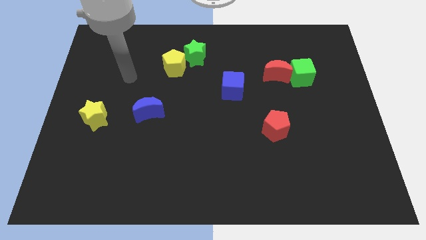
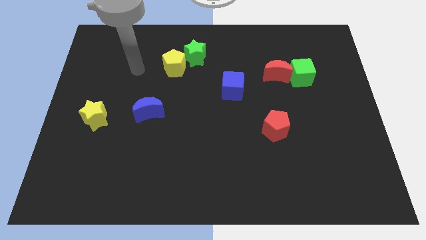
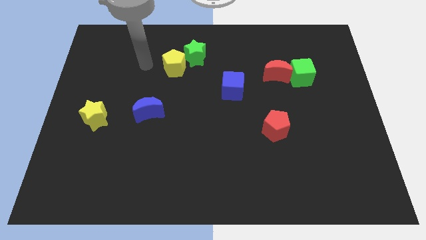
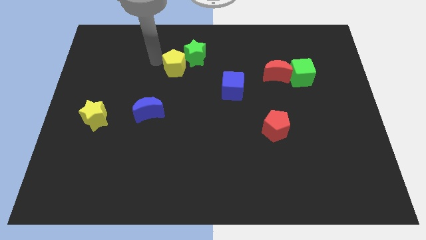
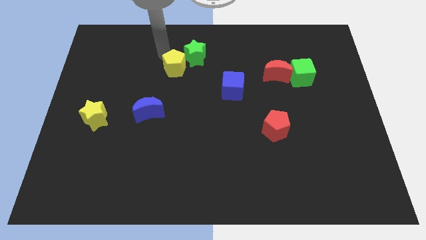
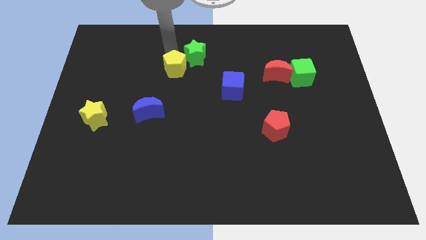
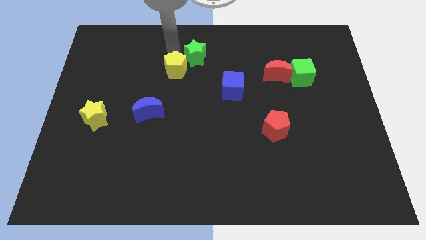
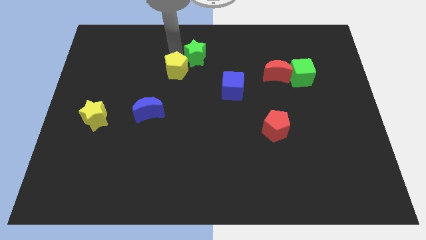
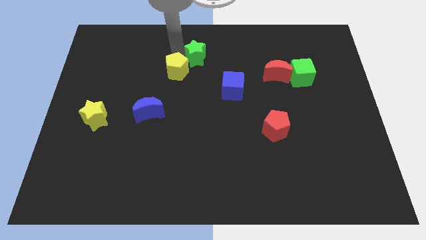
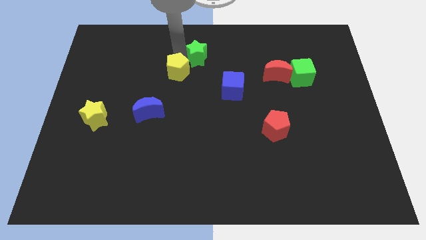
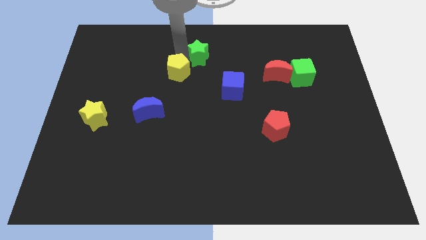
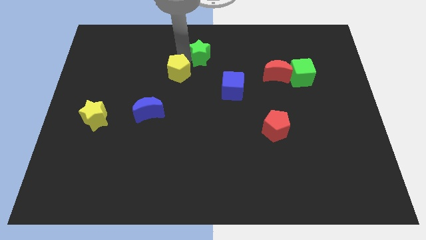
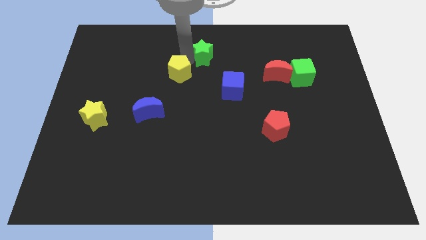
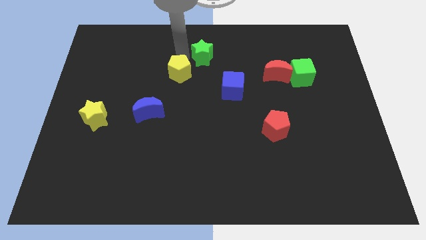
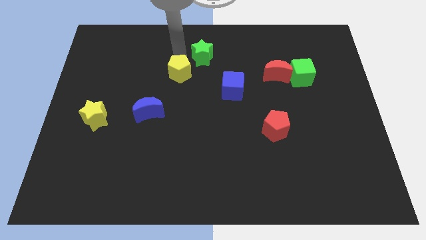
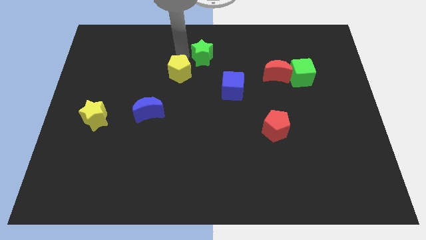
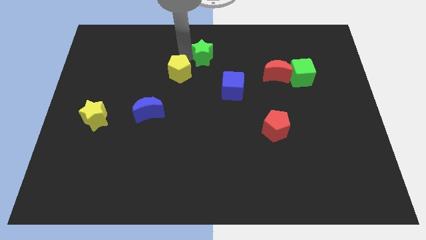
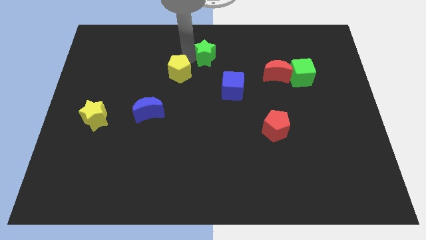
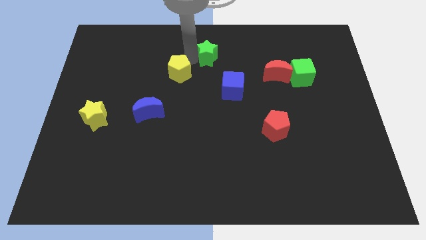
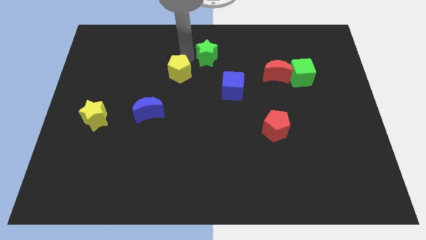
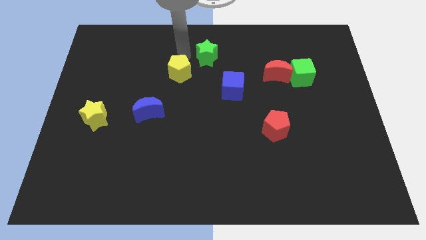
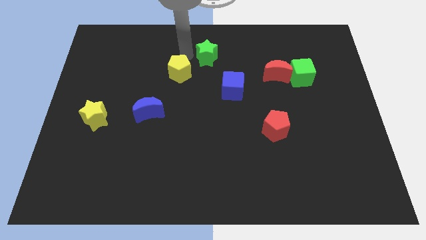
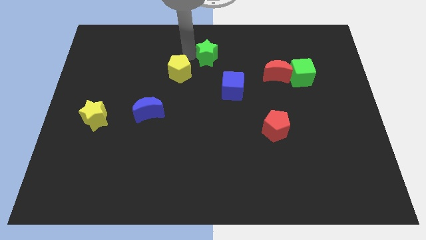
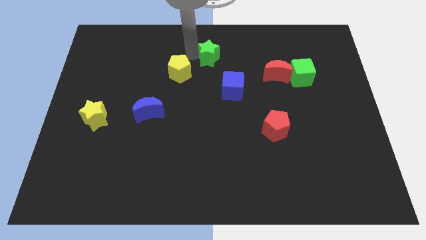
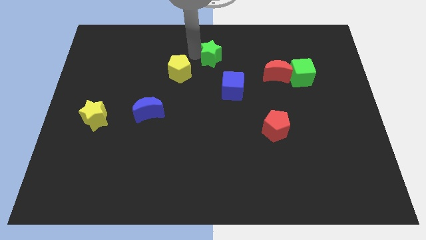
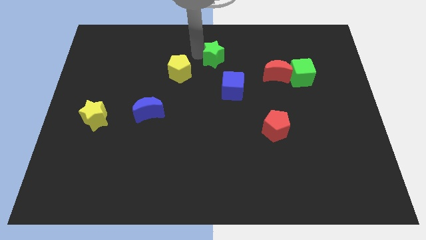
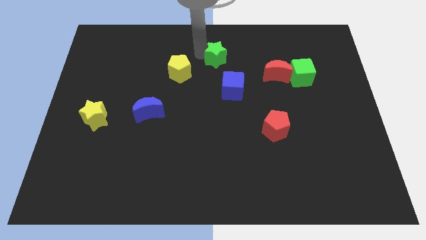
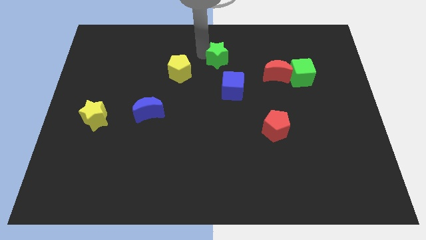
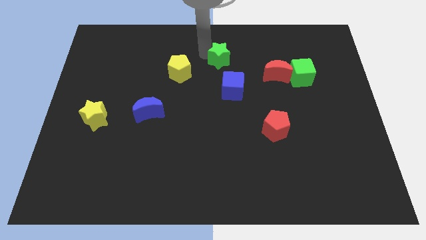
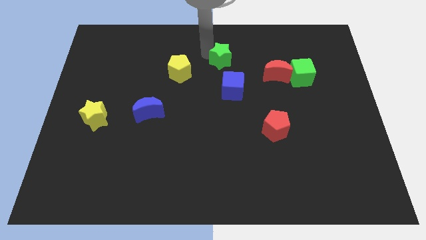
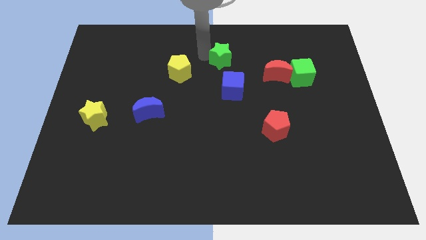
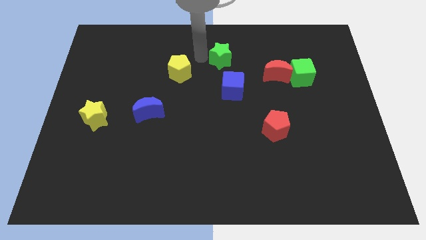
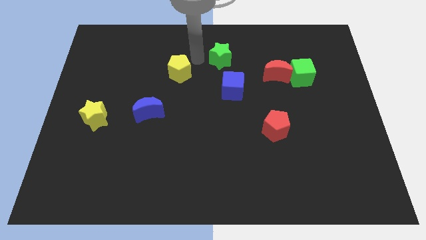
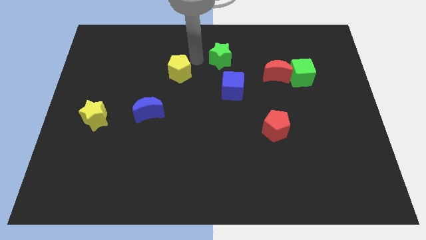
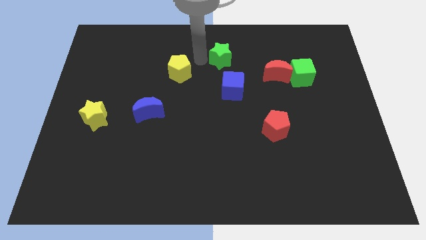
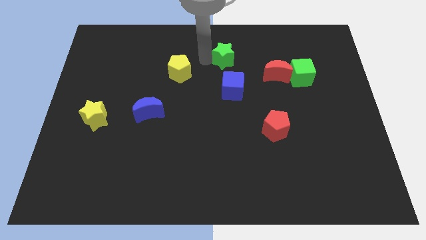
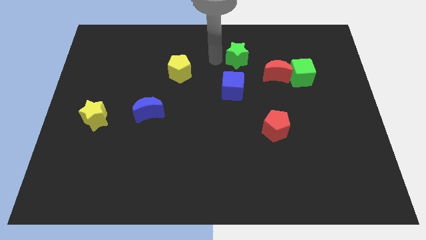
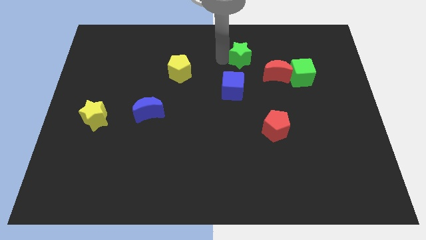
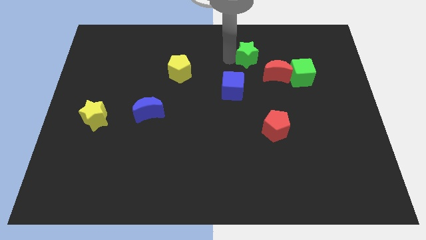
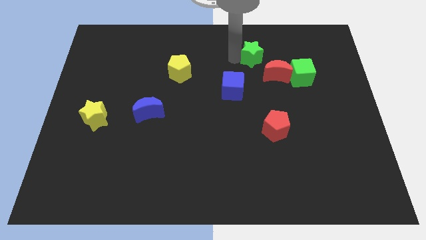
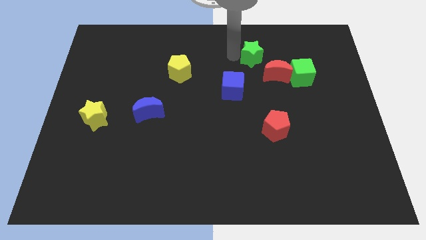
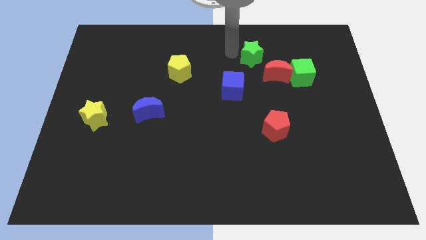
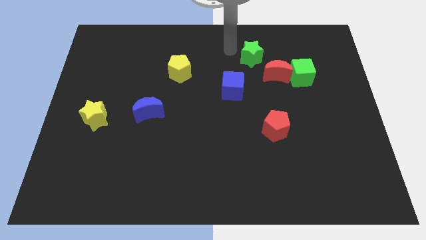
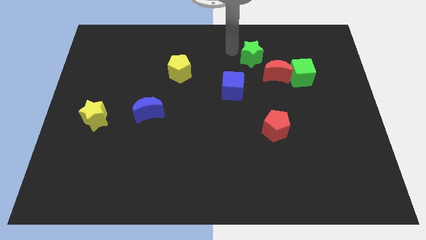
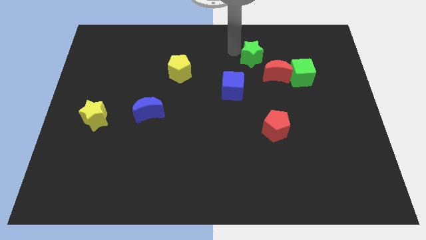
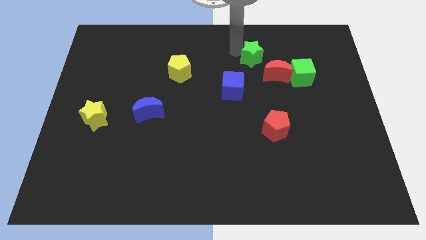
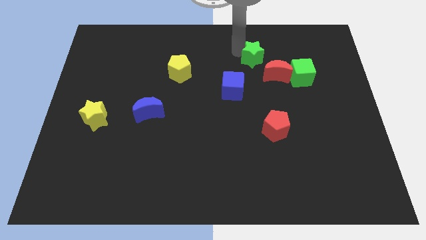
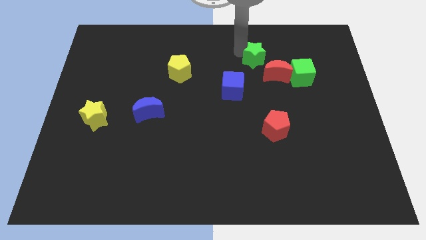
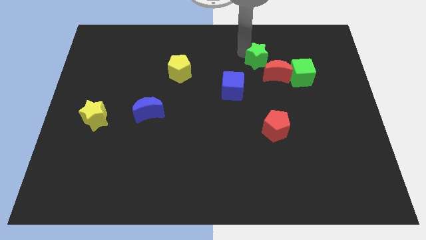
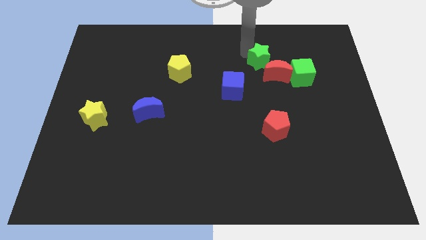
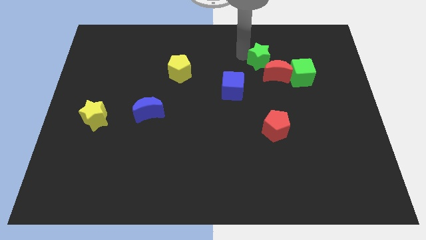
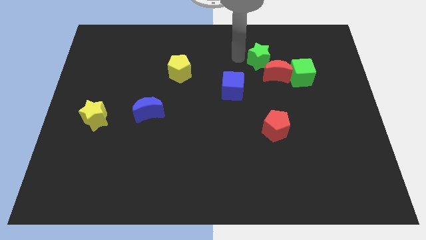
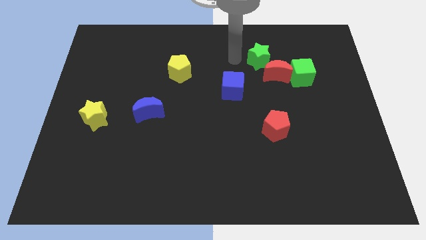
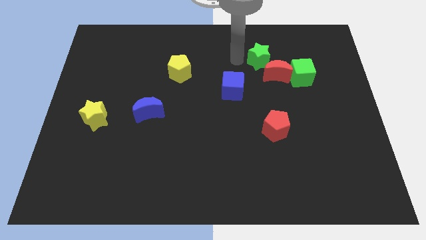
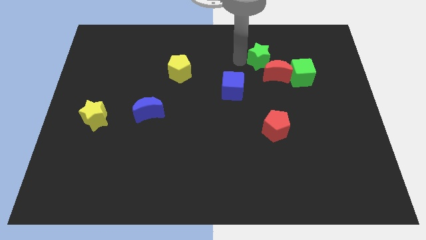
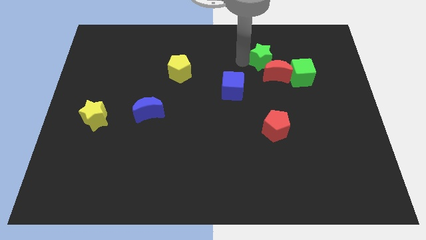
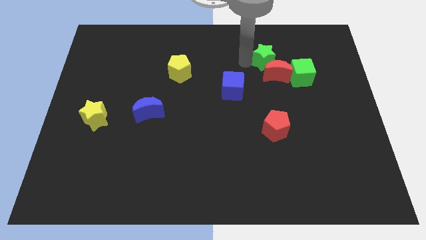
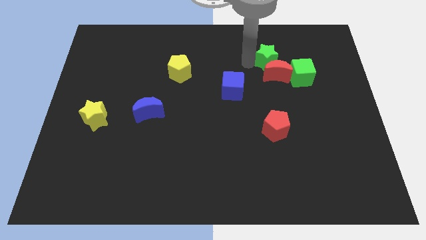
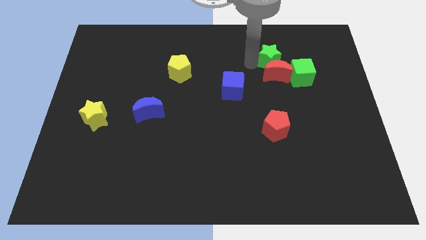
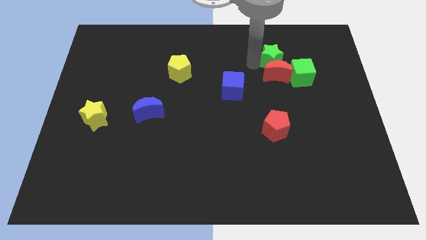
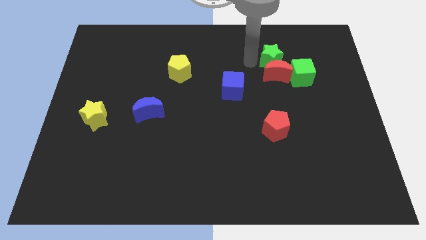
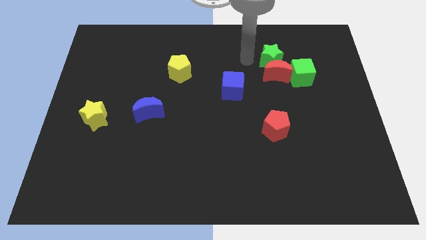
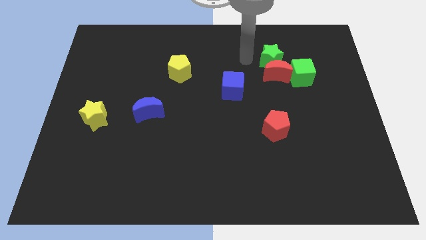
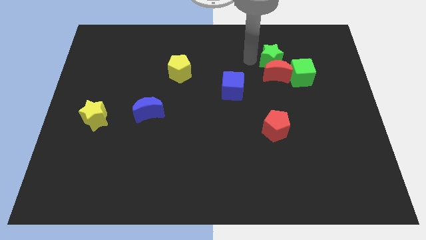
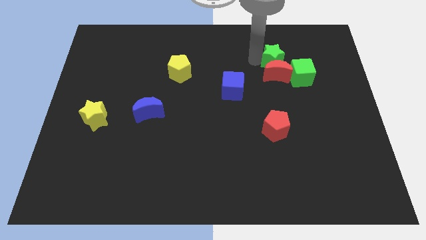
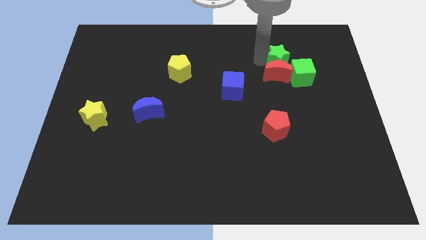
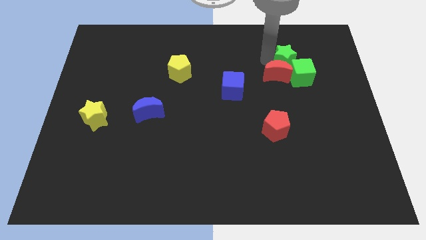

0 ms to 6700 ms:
push the green star towards the green cube
